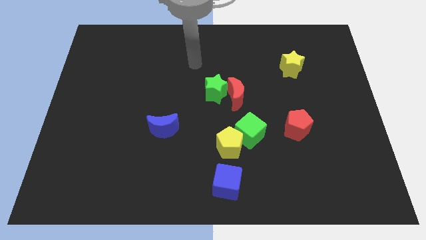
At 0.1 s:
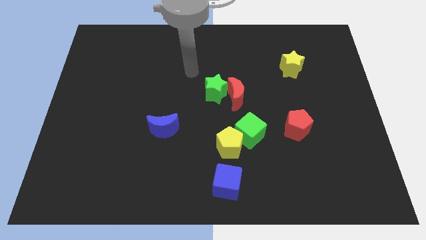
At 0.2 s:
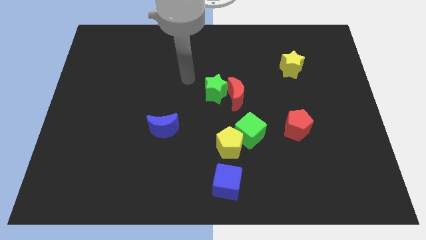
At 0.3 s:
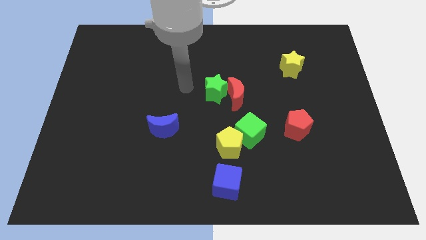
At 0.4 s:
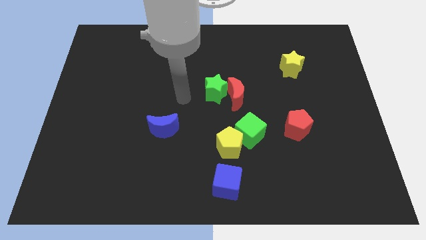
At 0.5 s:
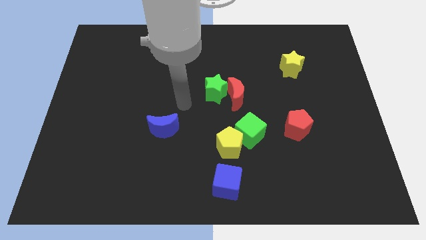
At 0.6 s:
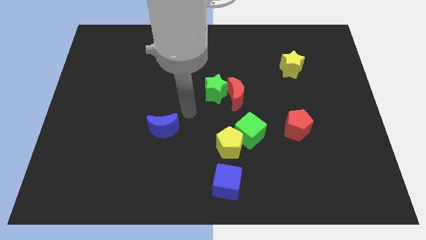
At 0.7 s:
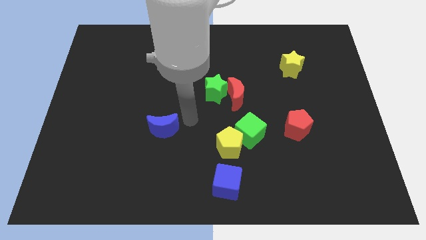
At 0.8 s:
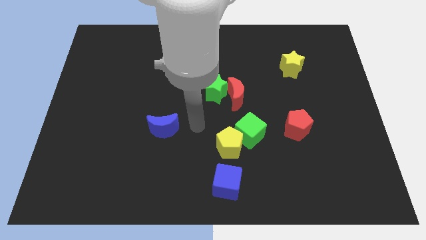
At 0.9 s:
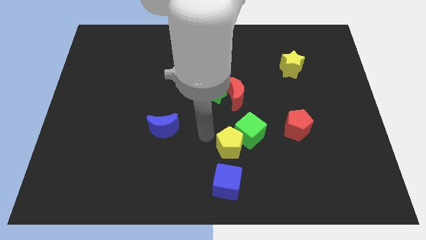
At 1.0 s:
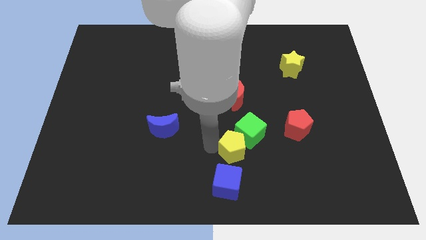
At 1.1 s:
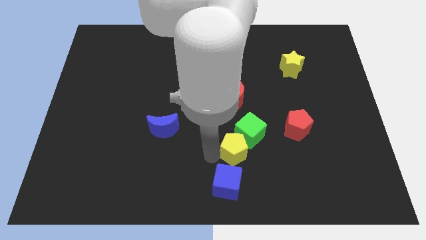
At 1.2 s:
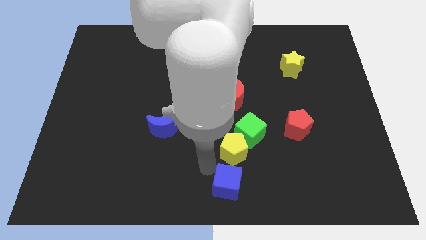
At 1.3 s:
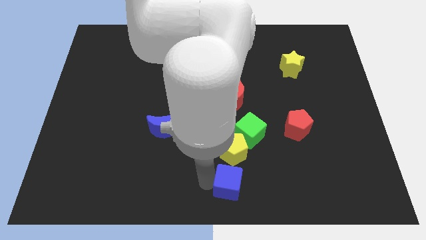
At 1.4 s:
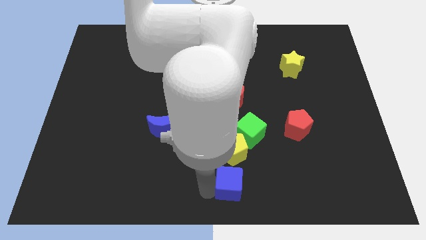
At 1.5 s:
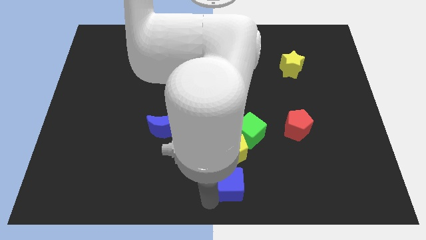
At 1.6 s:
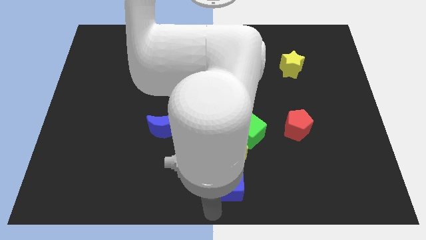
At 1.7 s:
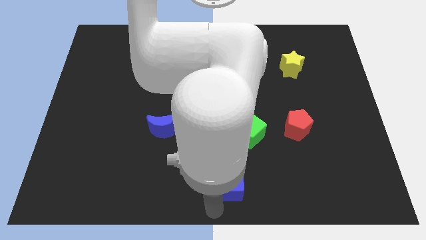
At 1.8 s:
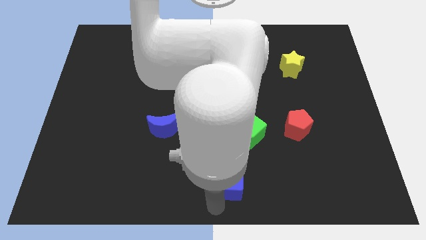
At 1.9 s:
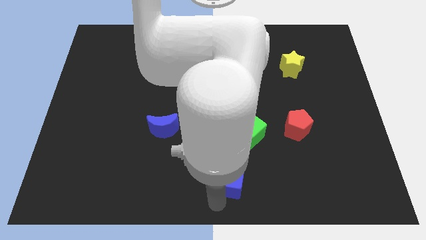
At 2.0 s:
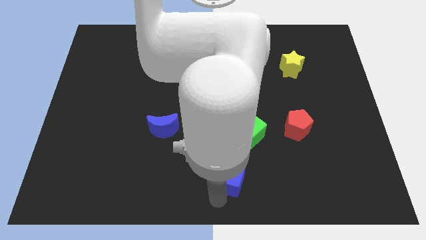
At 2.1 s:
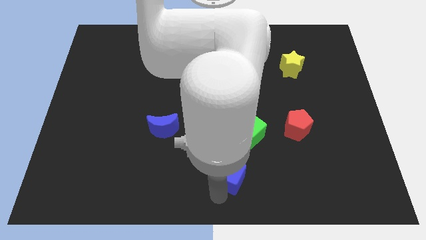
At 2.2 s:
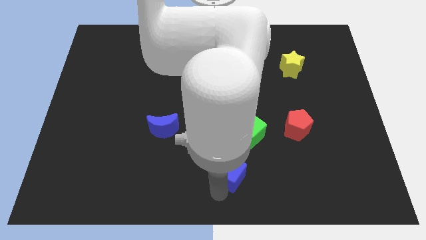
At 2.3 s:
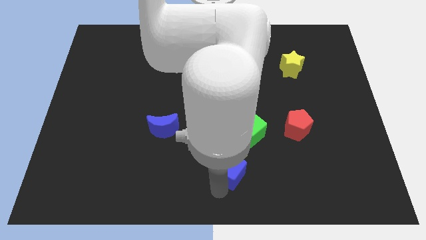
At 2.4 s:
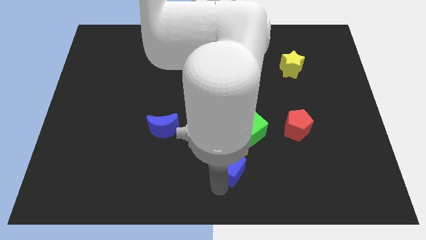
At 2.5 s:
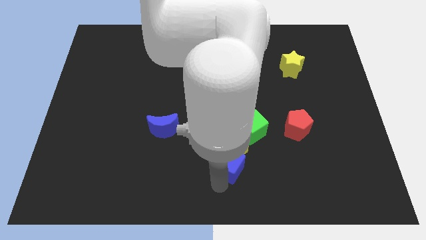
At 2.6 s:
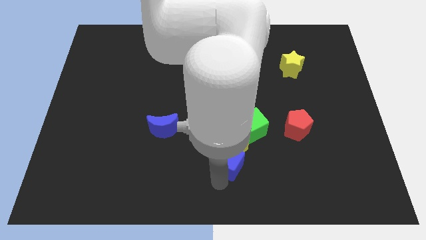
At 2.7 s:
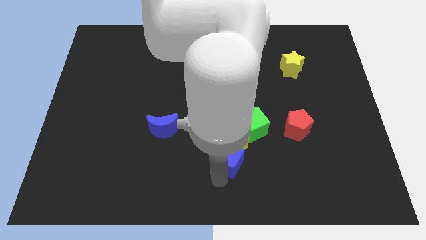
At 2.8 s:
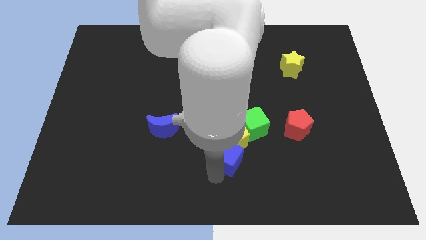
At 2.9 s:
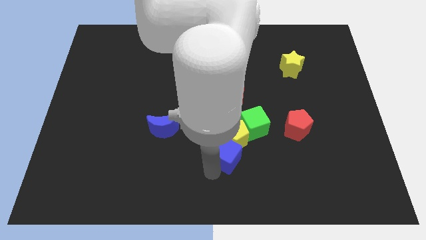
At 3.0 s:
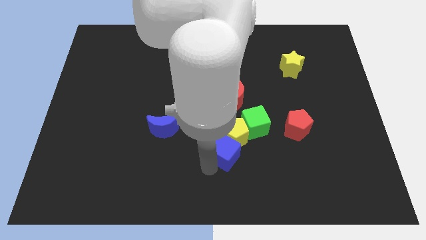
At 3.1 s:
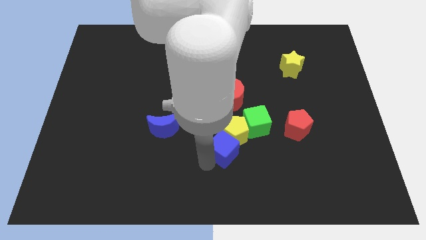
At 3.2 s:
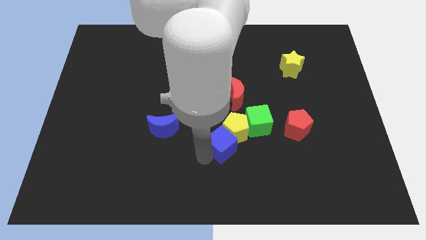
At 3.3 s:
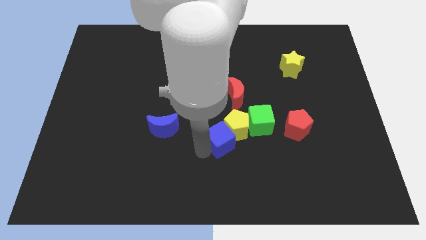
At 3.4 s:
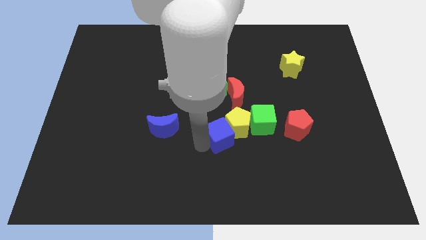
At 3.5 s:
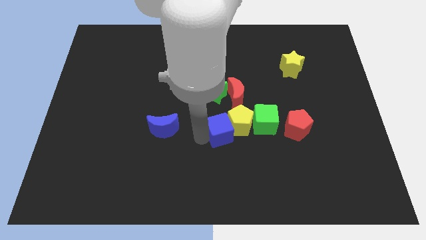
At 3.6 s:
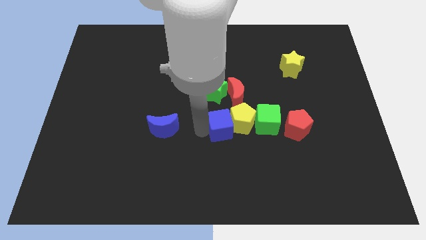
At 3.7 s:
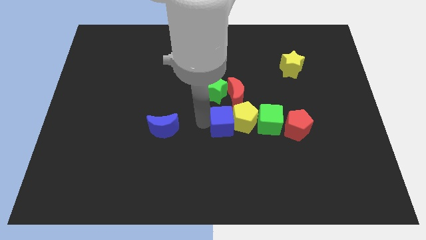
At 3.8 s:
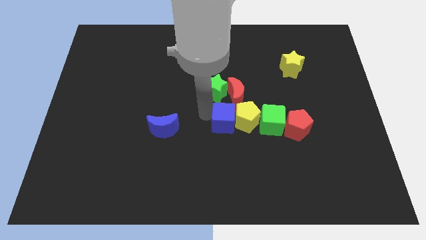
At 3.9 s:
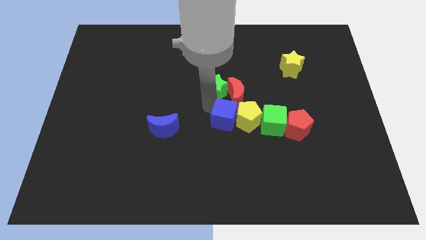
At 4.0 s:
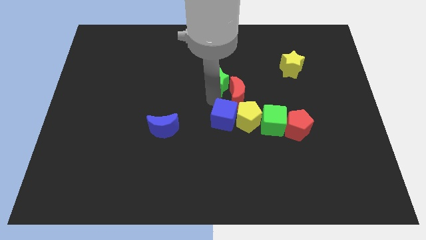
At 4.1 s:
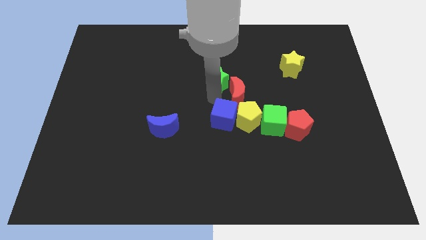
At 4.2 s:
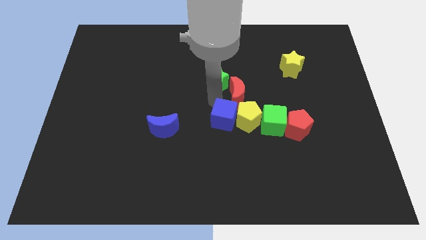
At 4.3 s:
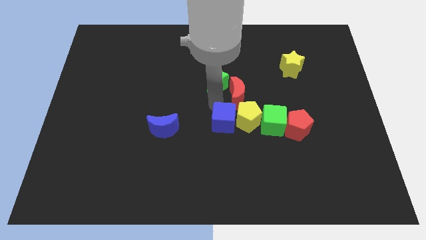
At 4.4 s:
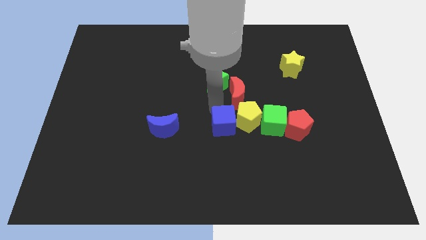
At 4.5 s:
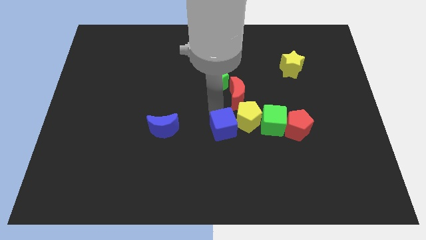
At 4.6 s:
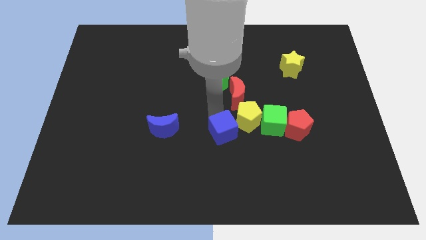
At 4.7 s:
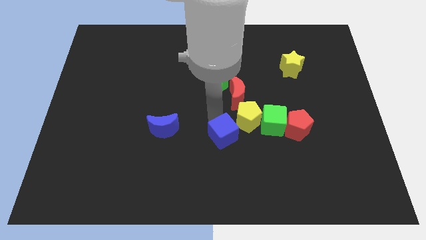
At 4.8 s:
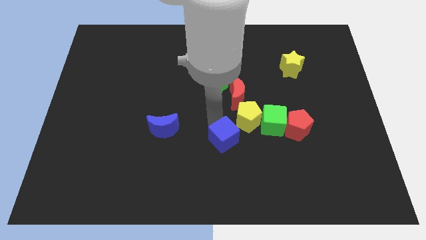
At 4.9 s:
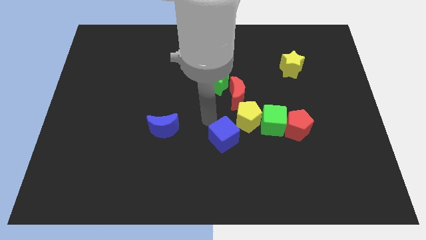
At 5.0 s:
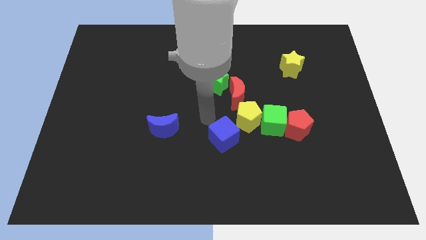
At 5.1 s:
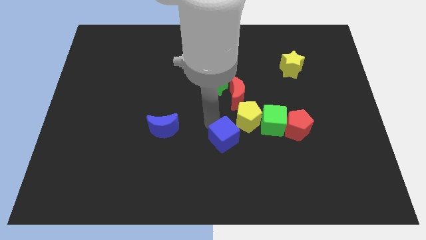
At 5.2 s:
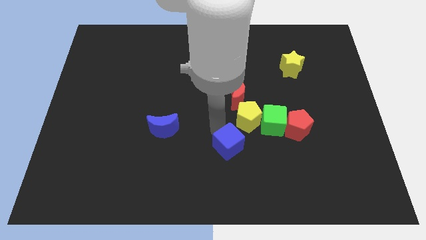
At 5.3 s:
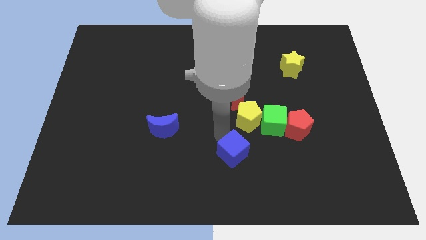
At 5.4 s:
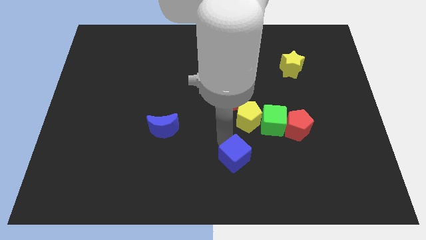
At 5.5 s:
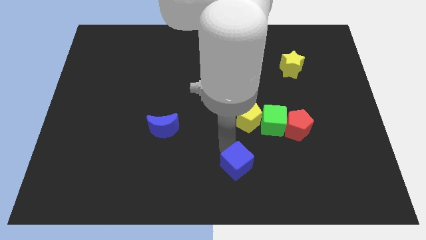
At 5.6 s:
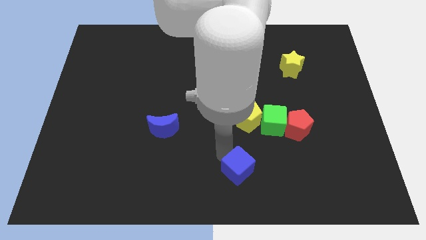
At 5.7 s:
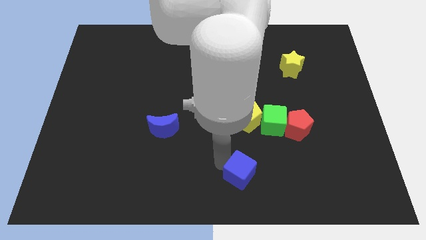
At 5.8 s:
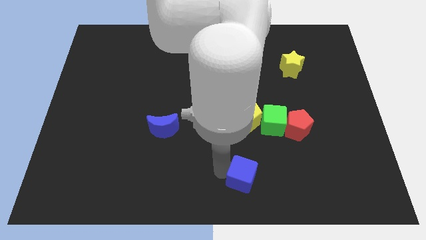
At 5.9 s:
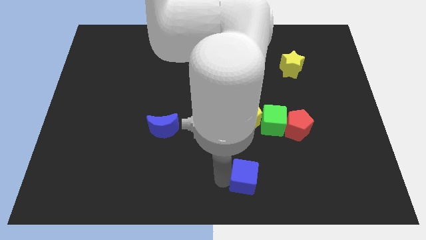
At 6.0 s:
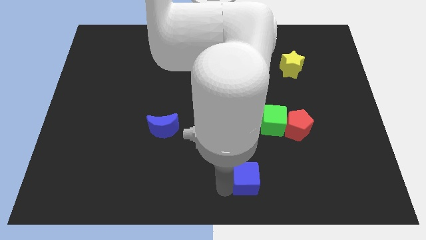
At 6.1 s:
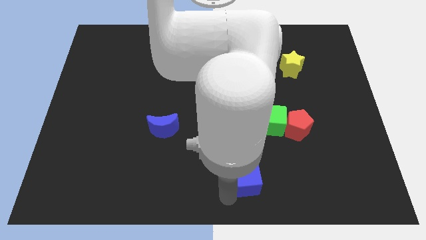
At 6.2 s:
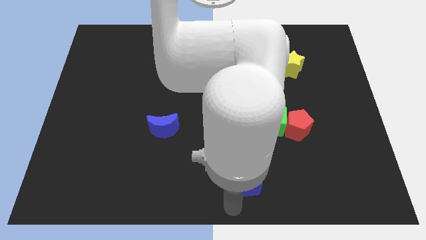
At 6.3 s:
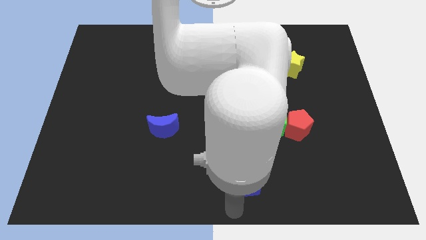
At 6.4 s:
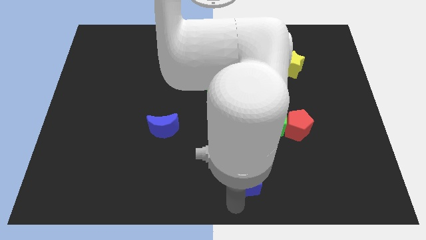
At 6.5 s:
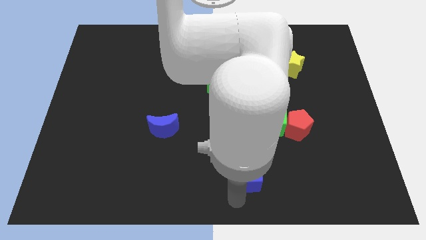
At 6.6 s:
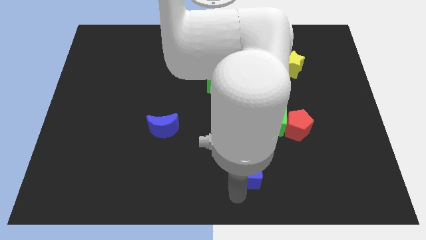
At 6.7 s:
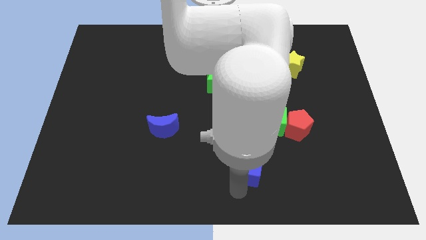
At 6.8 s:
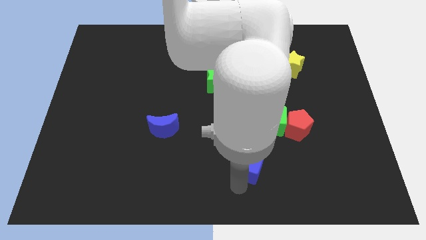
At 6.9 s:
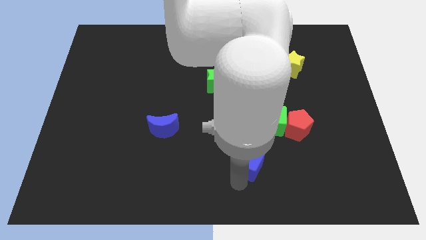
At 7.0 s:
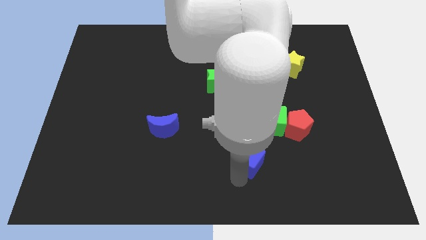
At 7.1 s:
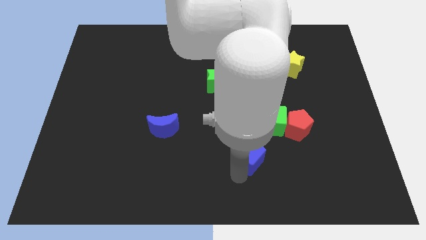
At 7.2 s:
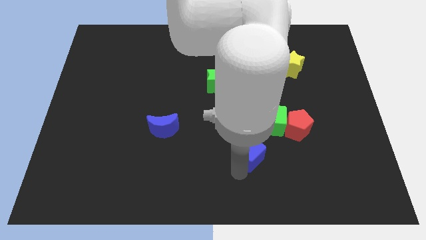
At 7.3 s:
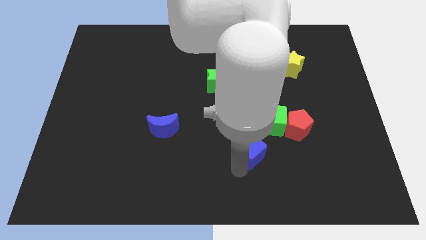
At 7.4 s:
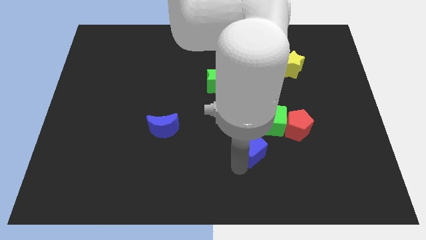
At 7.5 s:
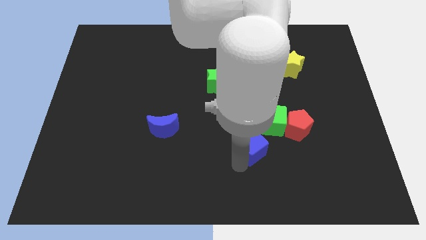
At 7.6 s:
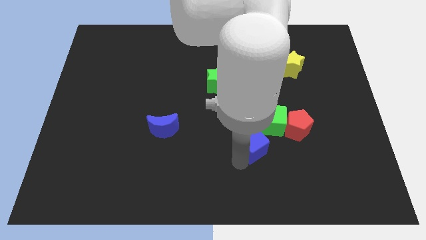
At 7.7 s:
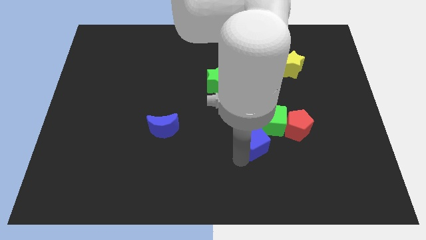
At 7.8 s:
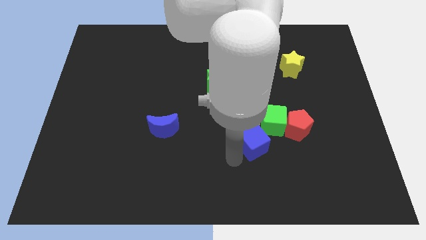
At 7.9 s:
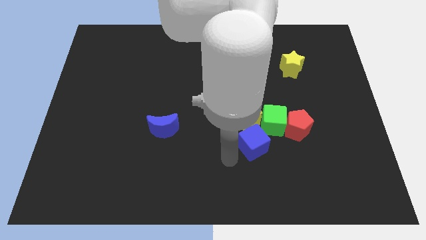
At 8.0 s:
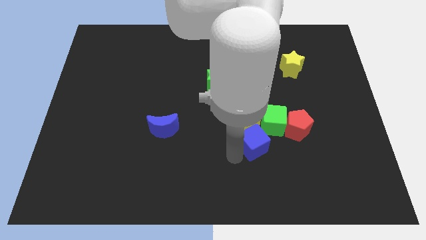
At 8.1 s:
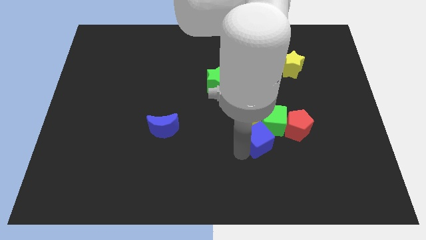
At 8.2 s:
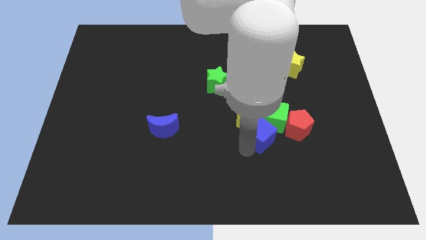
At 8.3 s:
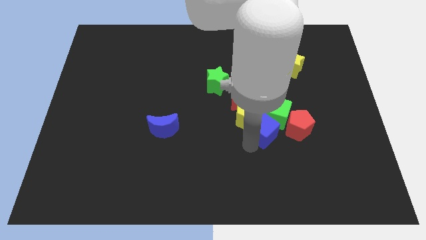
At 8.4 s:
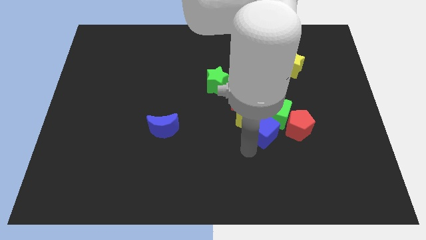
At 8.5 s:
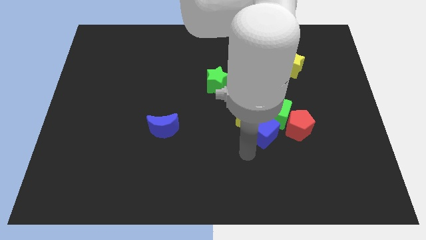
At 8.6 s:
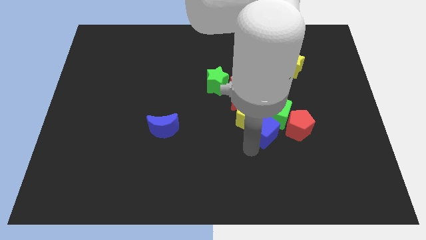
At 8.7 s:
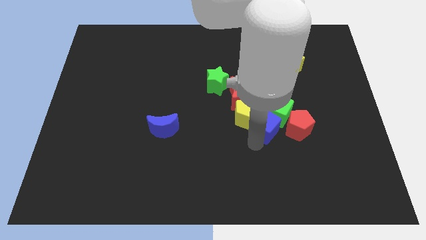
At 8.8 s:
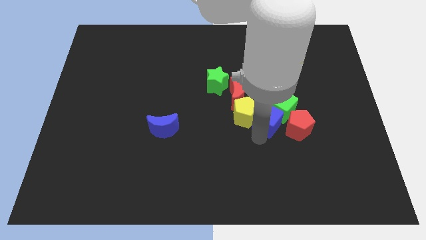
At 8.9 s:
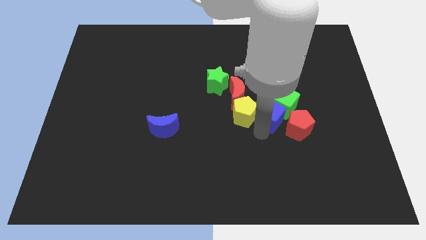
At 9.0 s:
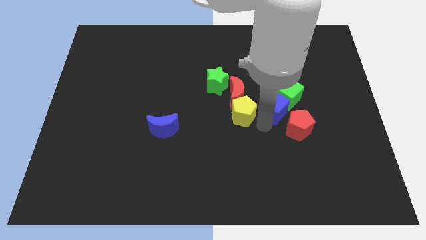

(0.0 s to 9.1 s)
slide the blue cube upwards and to the right
